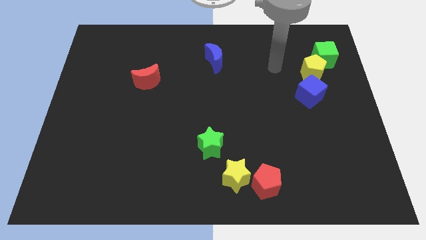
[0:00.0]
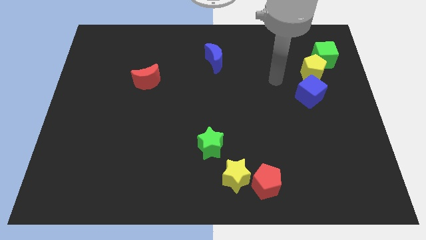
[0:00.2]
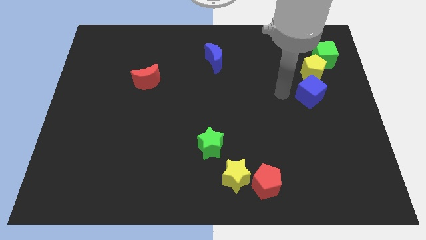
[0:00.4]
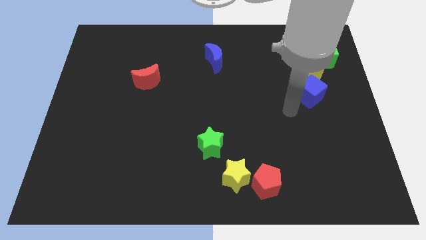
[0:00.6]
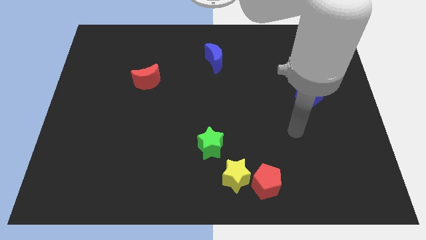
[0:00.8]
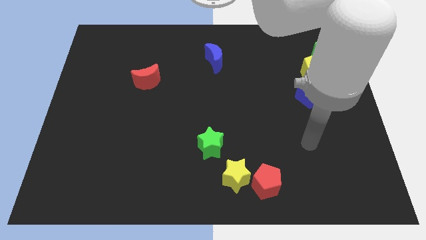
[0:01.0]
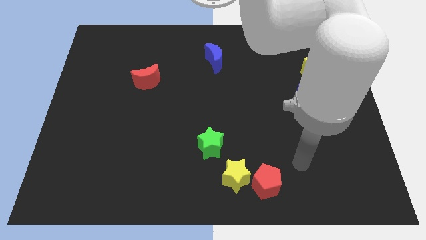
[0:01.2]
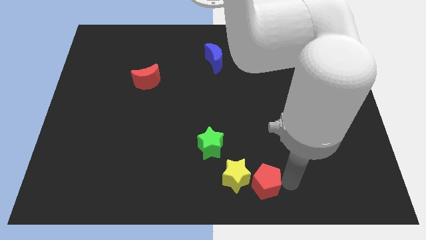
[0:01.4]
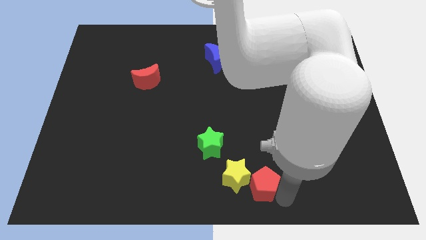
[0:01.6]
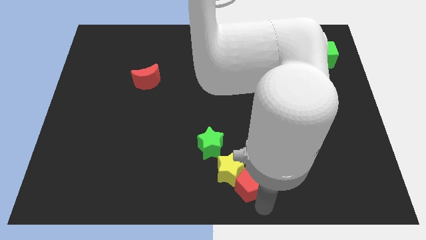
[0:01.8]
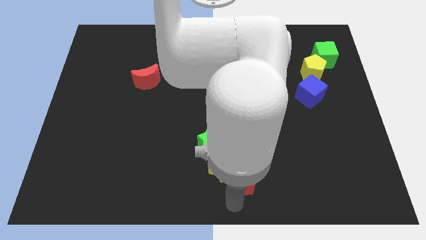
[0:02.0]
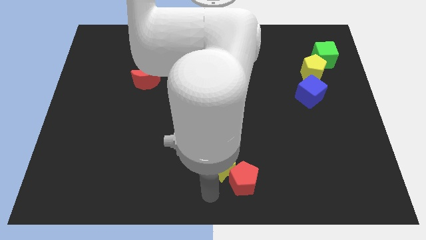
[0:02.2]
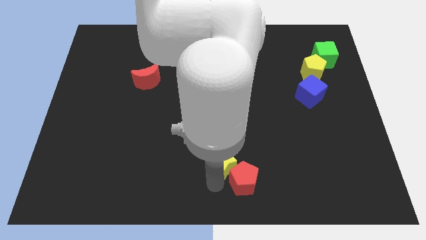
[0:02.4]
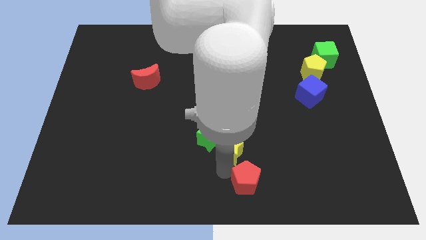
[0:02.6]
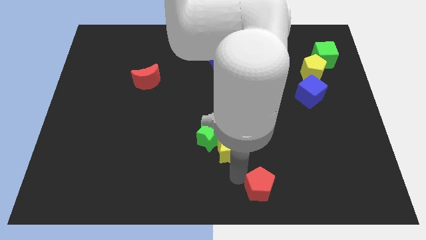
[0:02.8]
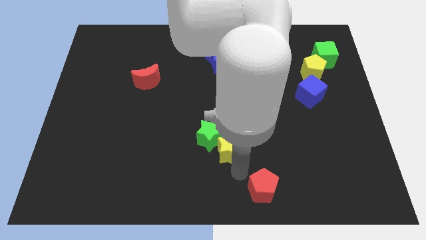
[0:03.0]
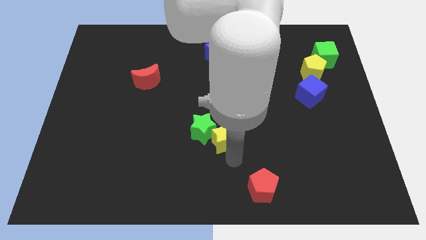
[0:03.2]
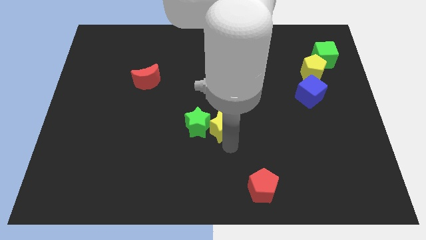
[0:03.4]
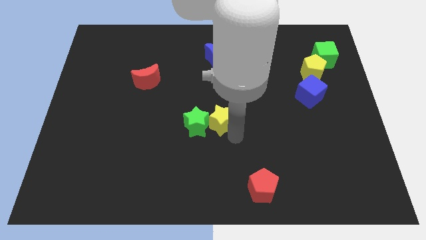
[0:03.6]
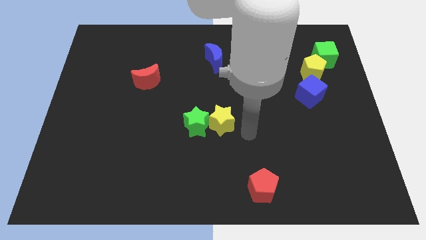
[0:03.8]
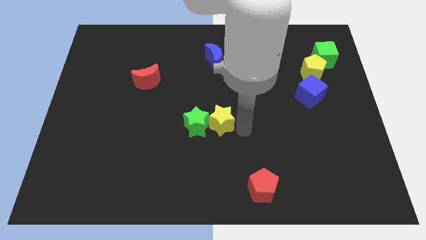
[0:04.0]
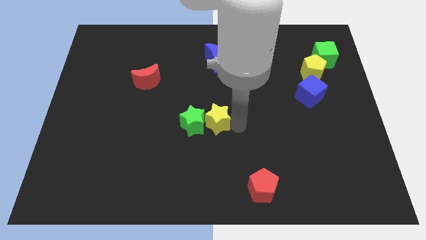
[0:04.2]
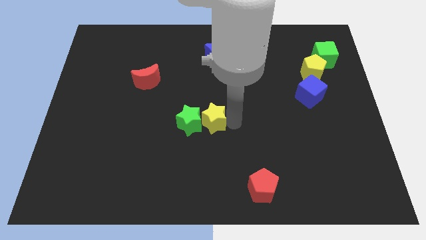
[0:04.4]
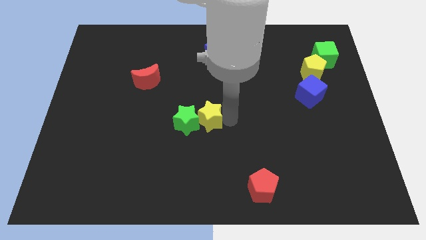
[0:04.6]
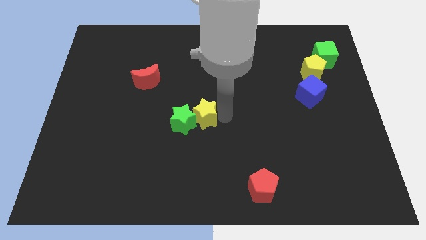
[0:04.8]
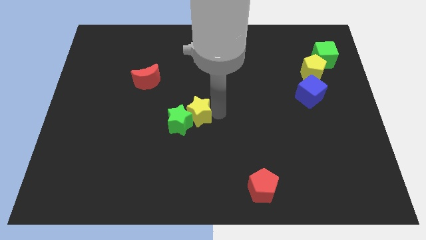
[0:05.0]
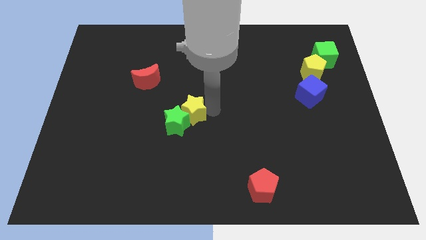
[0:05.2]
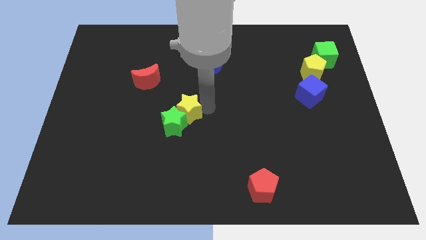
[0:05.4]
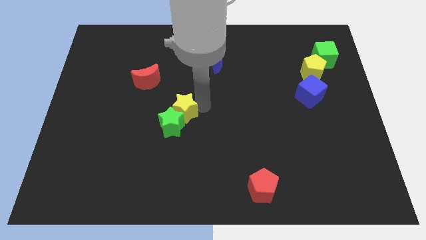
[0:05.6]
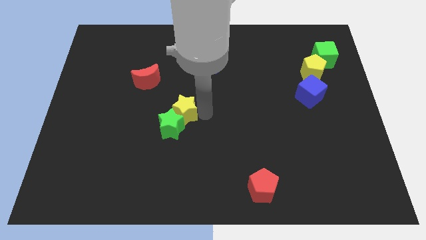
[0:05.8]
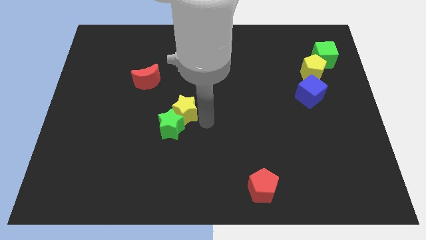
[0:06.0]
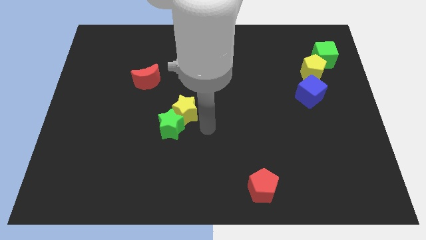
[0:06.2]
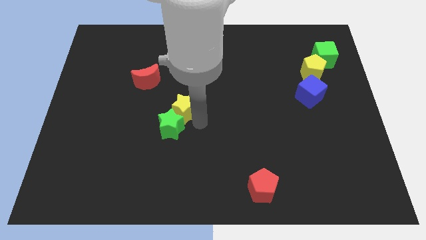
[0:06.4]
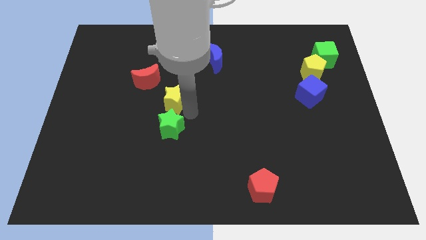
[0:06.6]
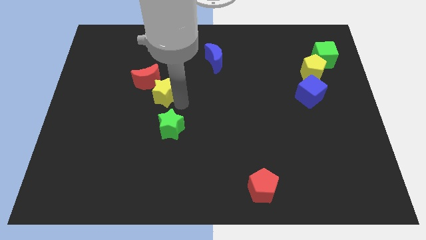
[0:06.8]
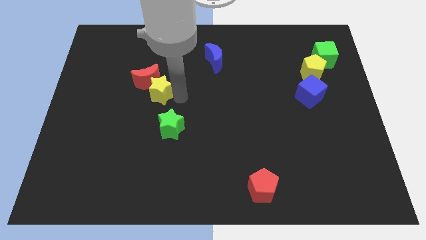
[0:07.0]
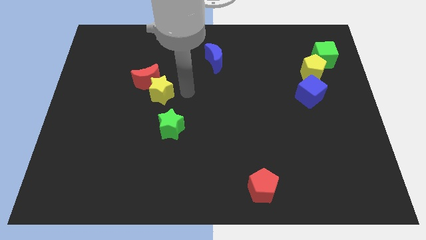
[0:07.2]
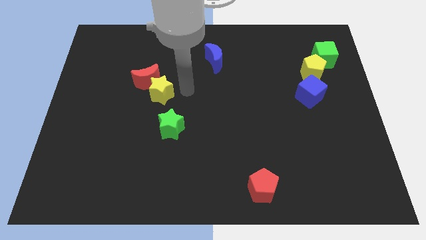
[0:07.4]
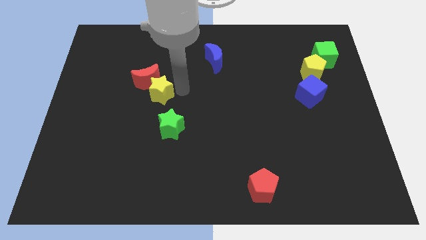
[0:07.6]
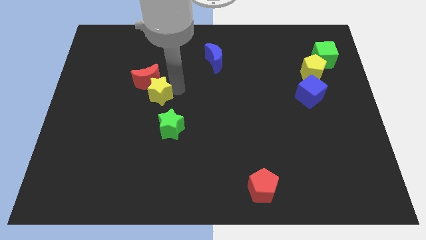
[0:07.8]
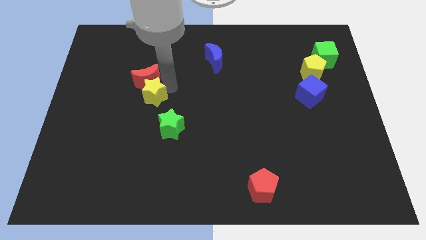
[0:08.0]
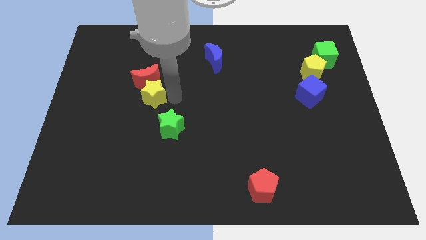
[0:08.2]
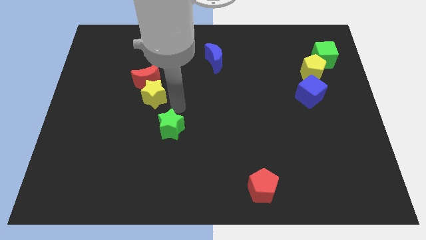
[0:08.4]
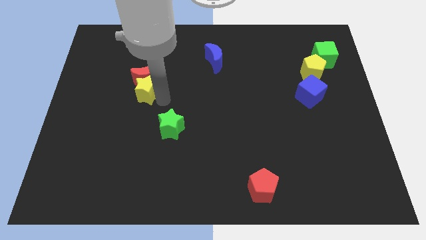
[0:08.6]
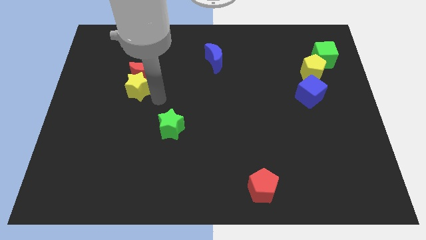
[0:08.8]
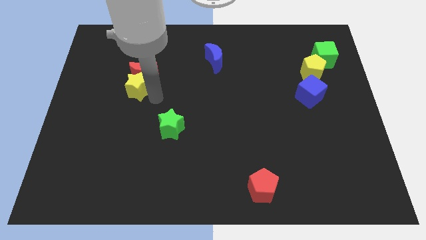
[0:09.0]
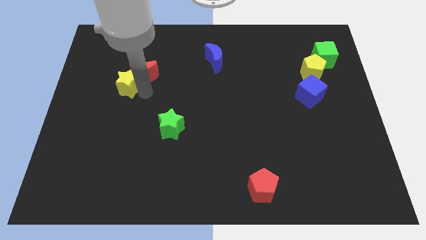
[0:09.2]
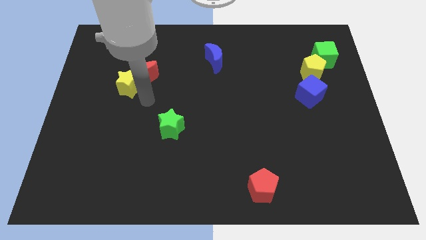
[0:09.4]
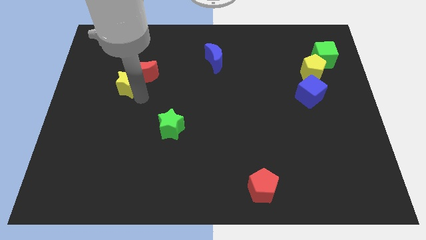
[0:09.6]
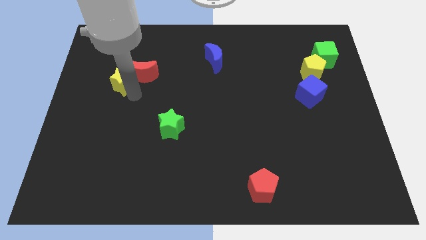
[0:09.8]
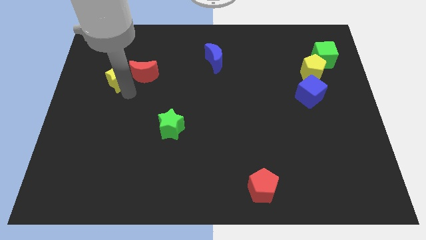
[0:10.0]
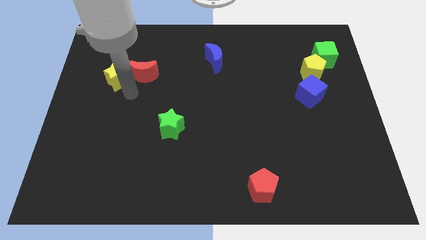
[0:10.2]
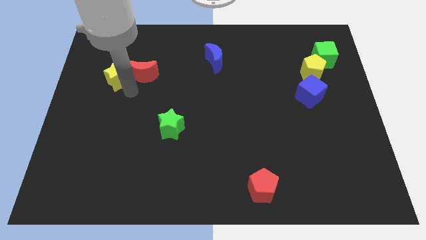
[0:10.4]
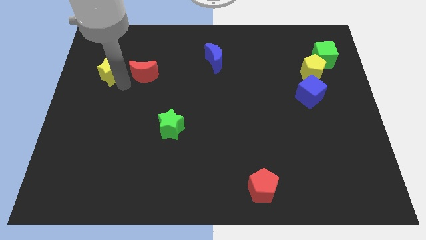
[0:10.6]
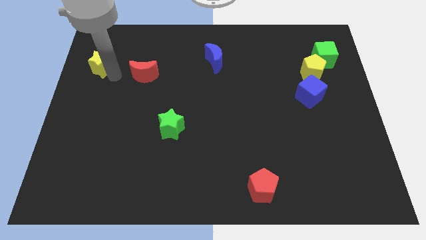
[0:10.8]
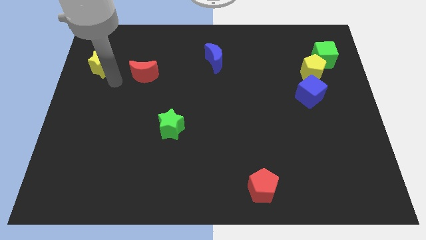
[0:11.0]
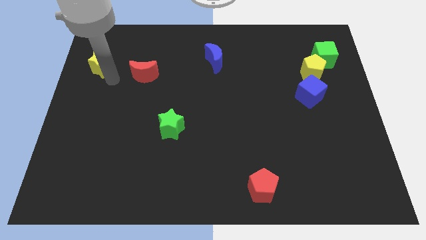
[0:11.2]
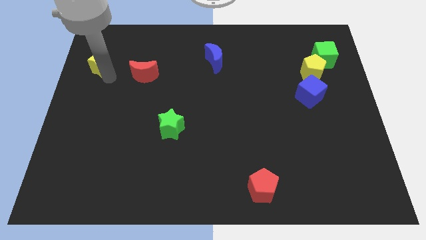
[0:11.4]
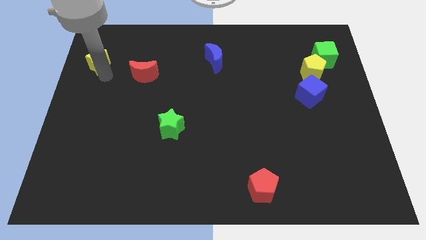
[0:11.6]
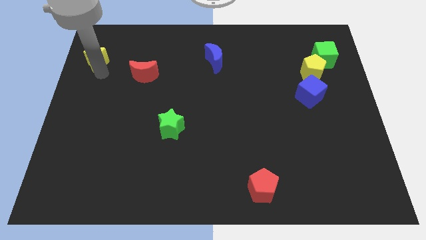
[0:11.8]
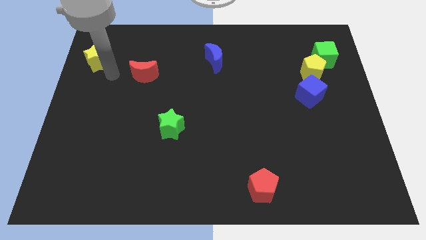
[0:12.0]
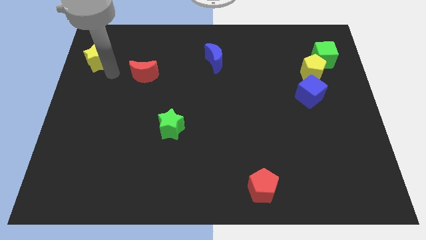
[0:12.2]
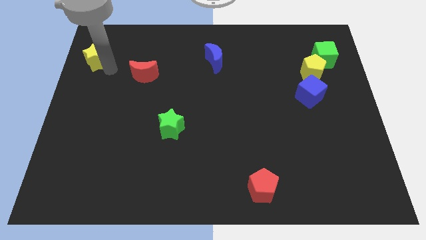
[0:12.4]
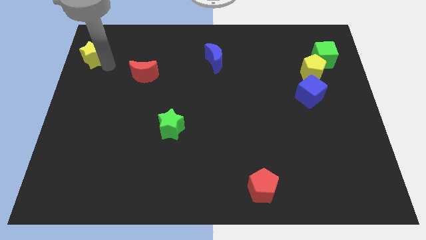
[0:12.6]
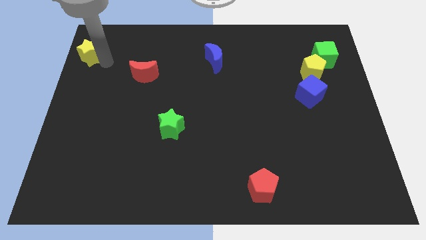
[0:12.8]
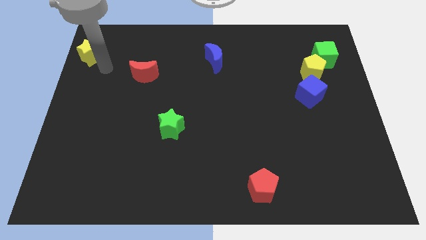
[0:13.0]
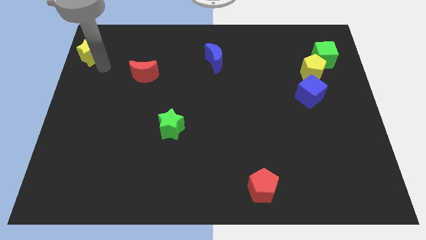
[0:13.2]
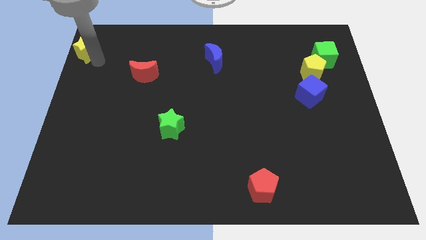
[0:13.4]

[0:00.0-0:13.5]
push the yellow star to the top left of the board
